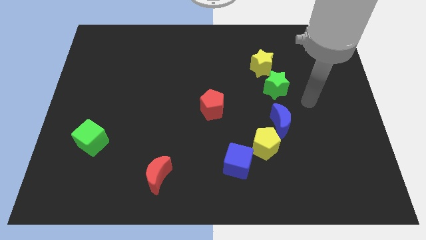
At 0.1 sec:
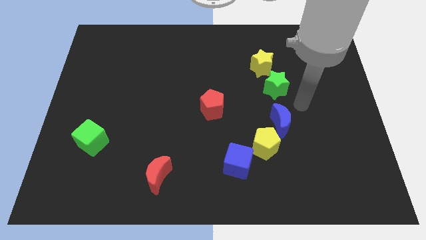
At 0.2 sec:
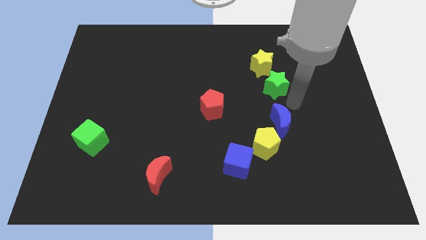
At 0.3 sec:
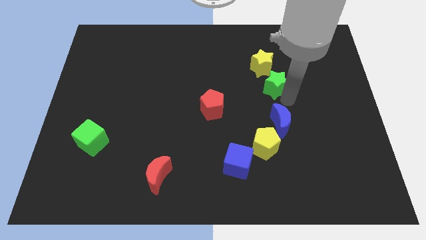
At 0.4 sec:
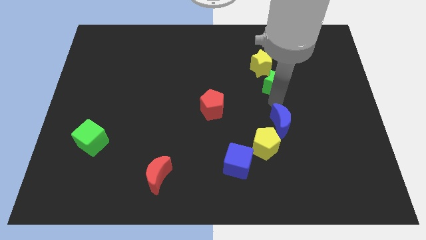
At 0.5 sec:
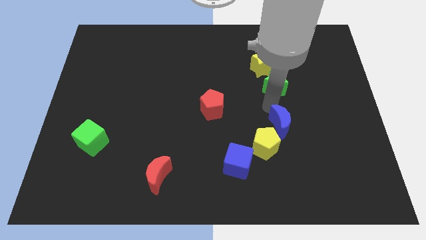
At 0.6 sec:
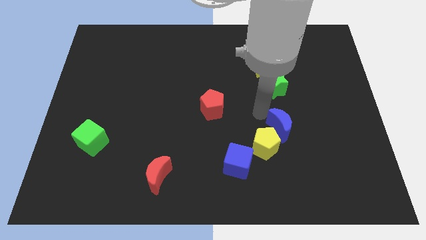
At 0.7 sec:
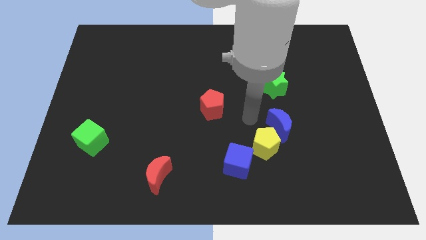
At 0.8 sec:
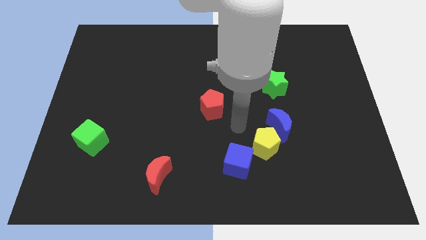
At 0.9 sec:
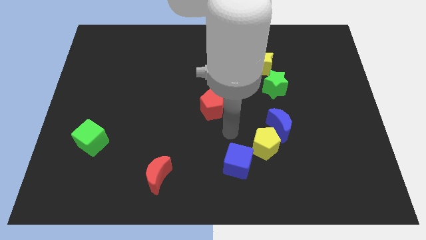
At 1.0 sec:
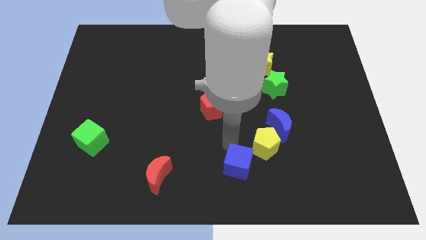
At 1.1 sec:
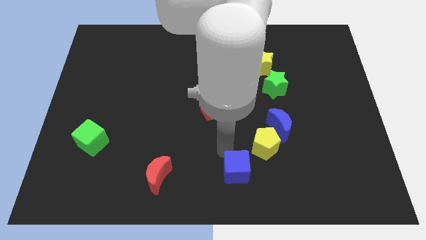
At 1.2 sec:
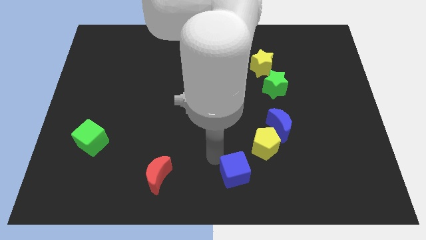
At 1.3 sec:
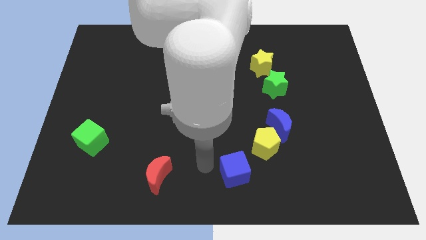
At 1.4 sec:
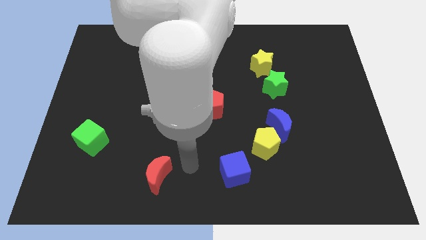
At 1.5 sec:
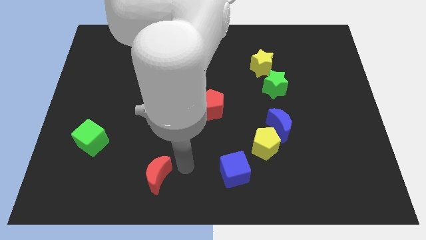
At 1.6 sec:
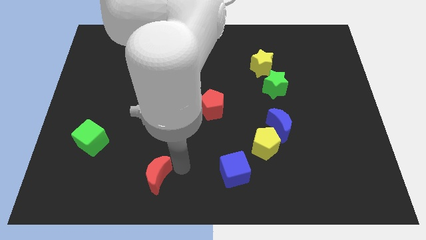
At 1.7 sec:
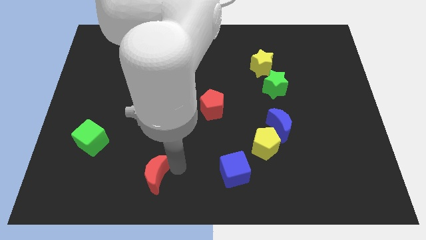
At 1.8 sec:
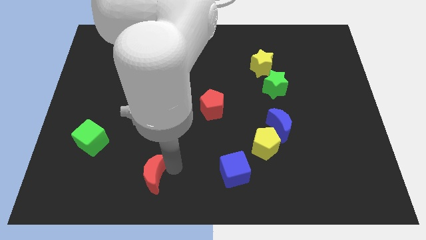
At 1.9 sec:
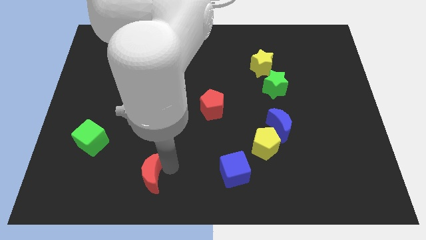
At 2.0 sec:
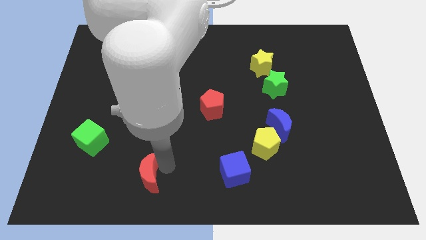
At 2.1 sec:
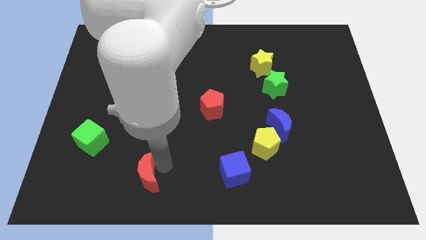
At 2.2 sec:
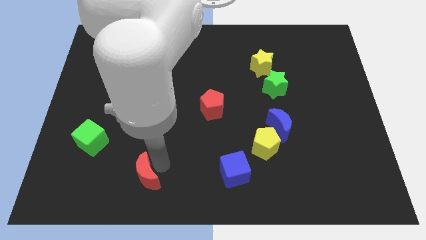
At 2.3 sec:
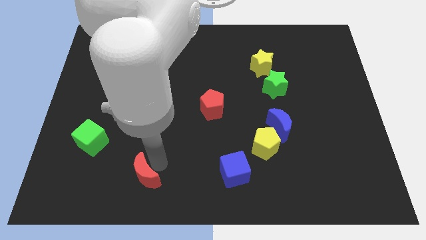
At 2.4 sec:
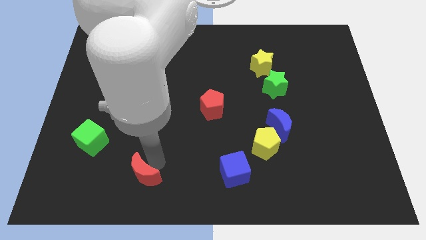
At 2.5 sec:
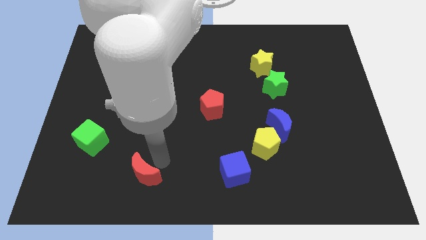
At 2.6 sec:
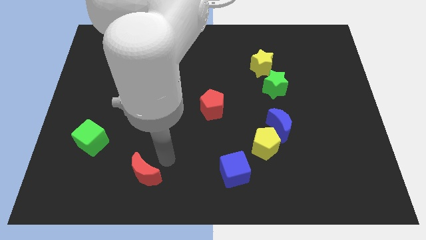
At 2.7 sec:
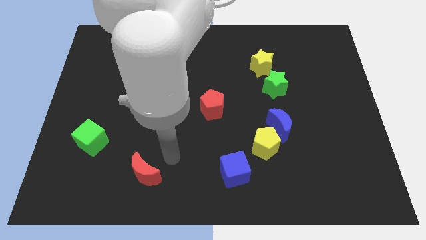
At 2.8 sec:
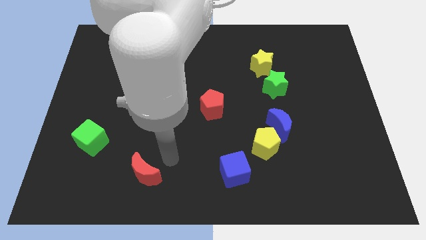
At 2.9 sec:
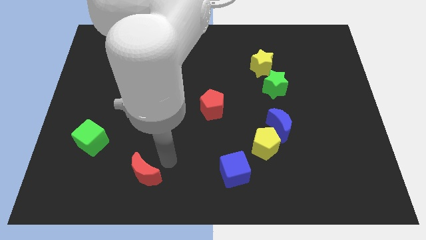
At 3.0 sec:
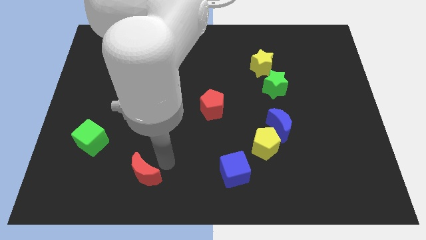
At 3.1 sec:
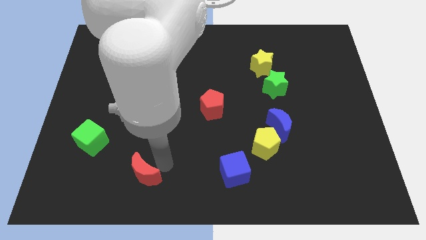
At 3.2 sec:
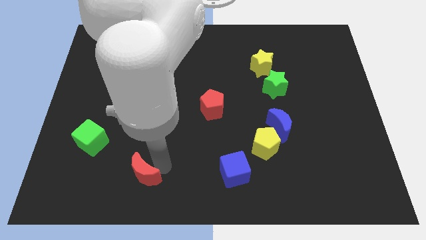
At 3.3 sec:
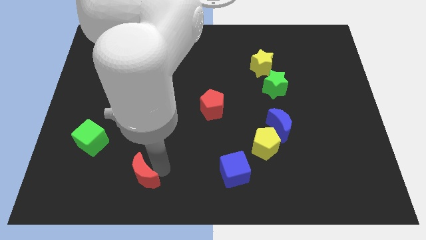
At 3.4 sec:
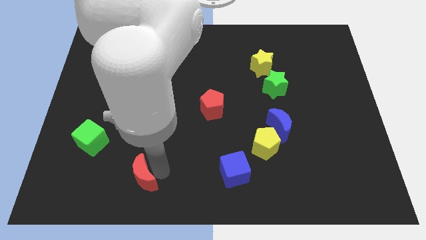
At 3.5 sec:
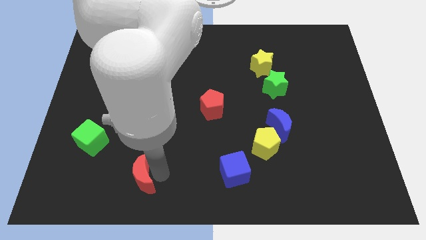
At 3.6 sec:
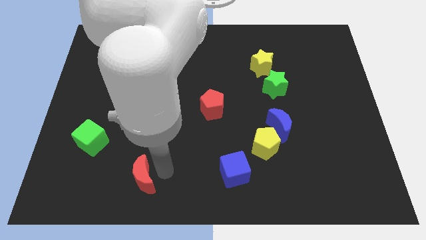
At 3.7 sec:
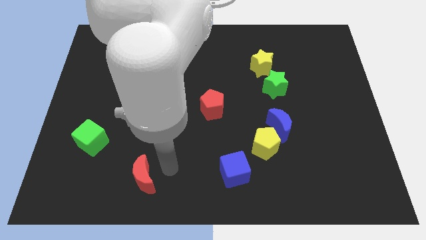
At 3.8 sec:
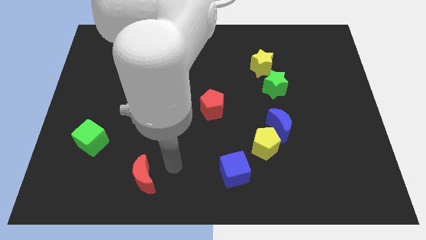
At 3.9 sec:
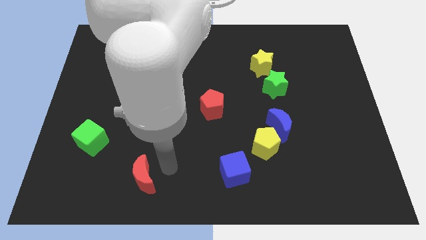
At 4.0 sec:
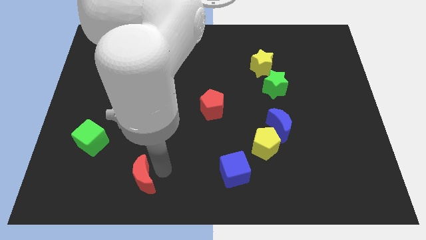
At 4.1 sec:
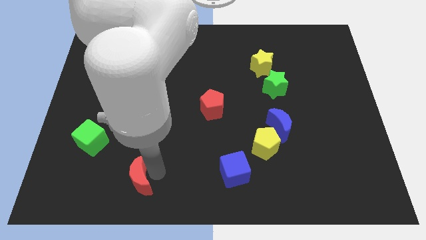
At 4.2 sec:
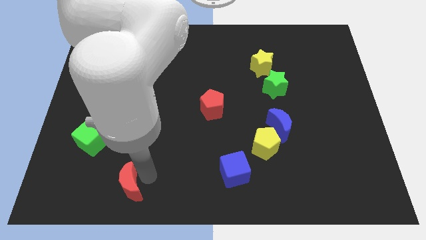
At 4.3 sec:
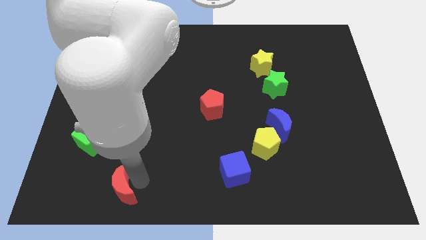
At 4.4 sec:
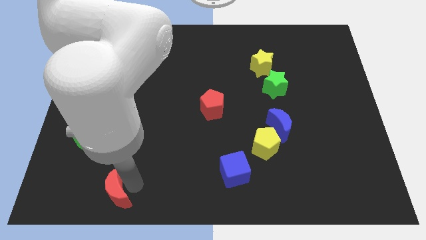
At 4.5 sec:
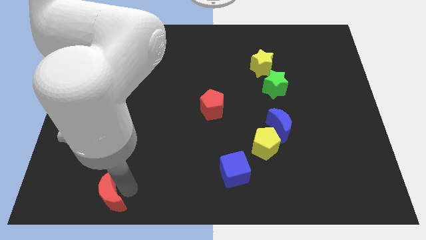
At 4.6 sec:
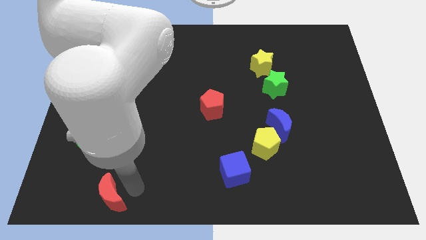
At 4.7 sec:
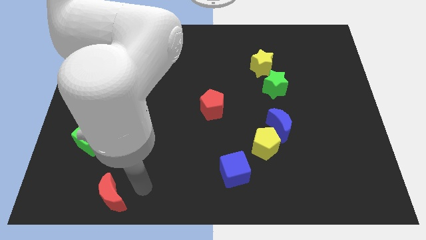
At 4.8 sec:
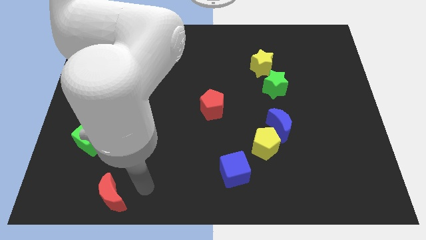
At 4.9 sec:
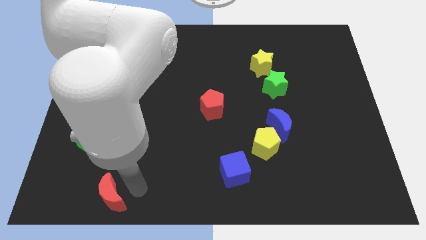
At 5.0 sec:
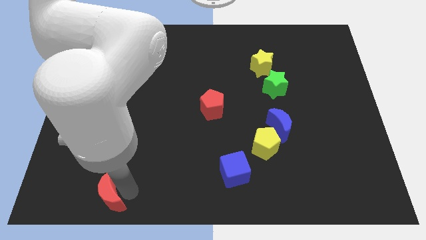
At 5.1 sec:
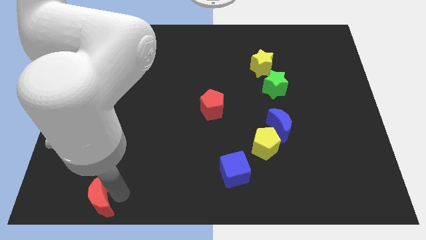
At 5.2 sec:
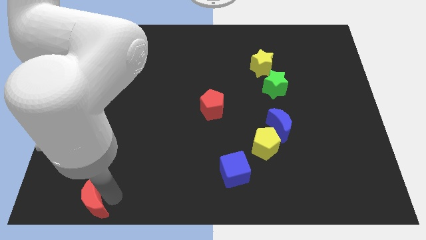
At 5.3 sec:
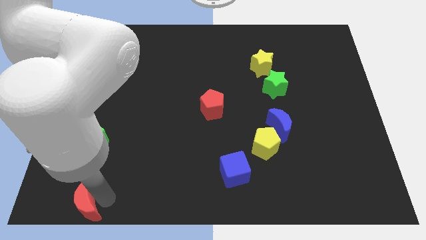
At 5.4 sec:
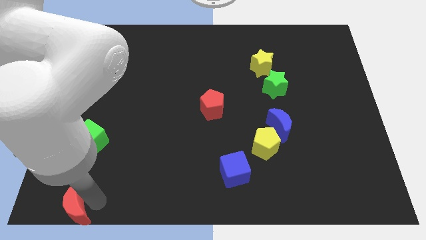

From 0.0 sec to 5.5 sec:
slide the red moon to the lower left corner
